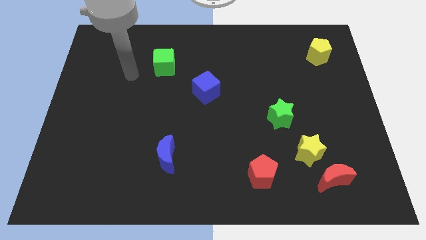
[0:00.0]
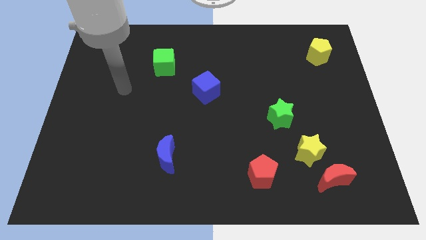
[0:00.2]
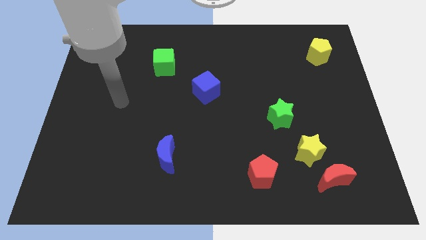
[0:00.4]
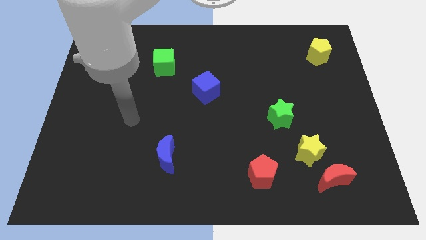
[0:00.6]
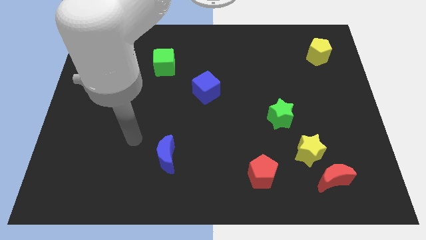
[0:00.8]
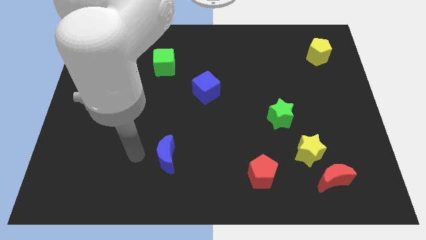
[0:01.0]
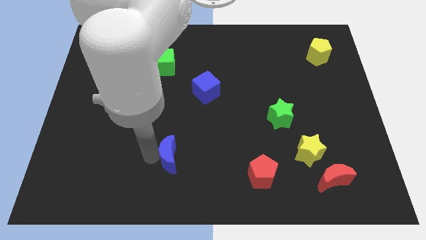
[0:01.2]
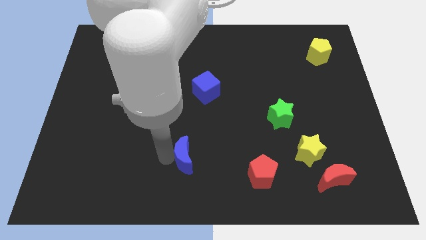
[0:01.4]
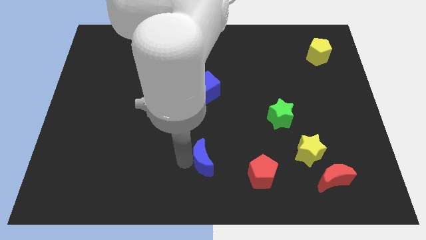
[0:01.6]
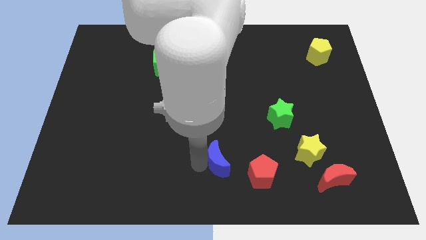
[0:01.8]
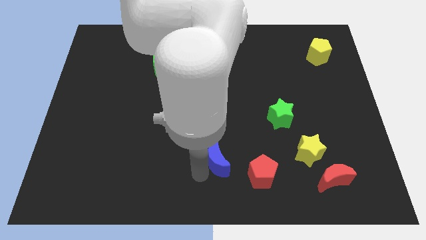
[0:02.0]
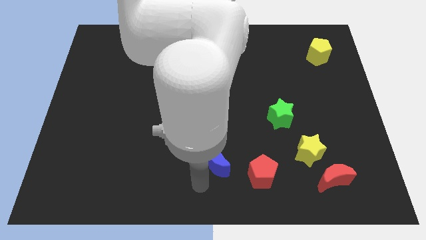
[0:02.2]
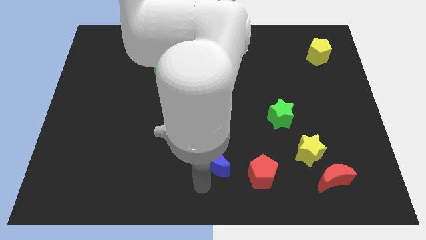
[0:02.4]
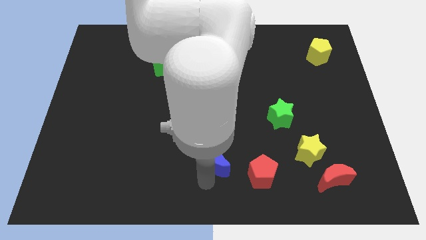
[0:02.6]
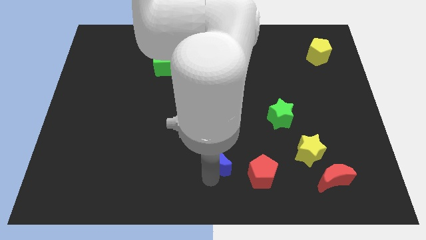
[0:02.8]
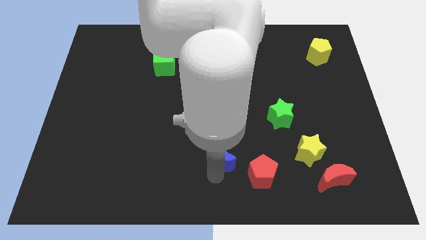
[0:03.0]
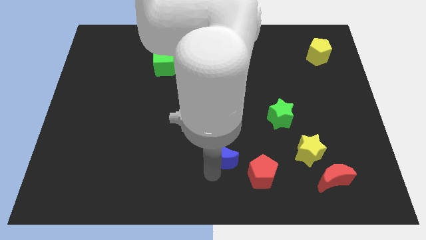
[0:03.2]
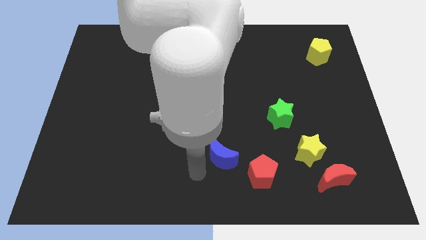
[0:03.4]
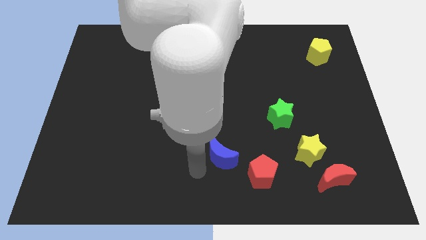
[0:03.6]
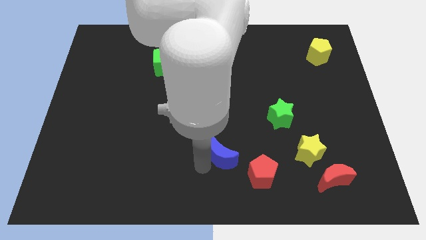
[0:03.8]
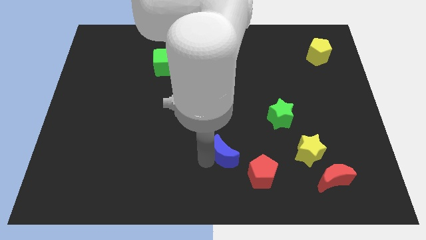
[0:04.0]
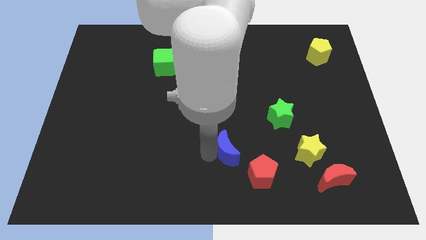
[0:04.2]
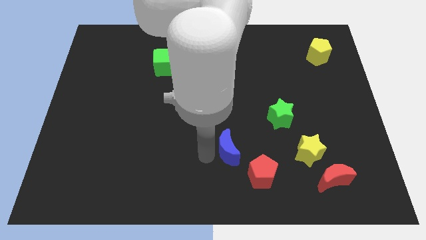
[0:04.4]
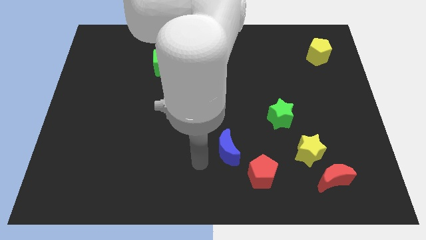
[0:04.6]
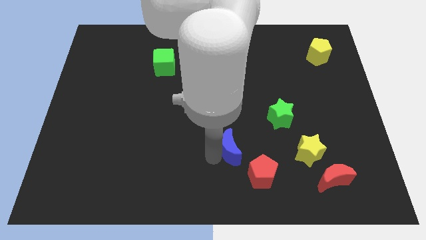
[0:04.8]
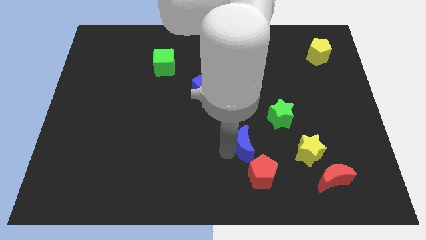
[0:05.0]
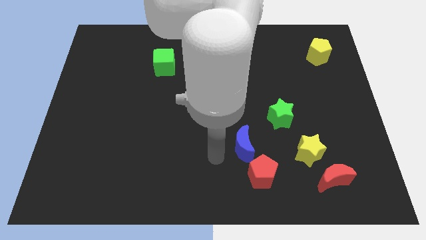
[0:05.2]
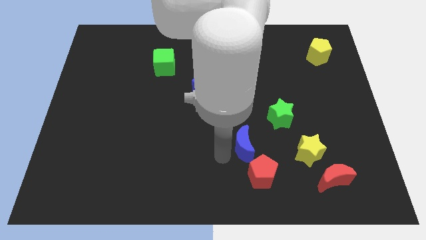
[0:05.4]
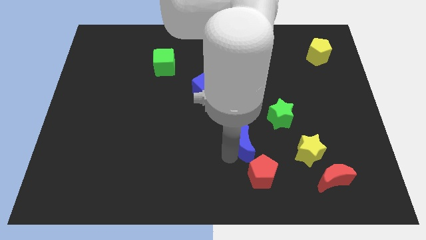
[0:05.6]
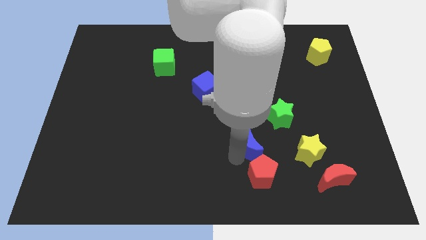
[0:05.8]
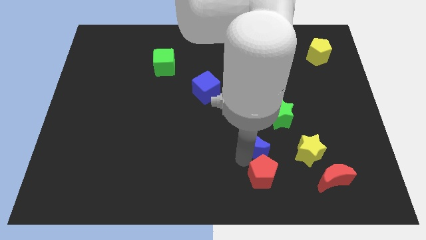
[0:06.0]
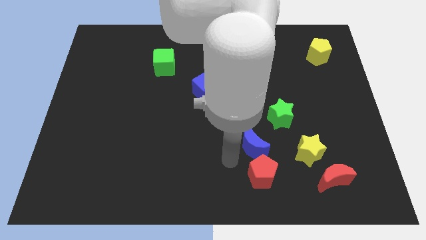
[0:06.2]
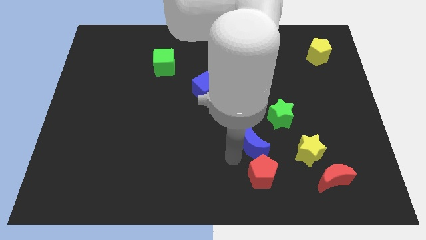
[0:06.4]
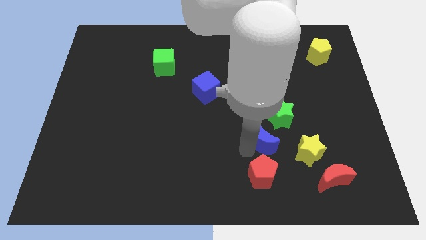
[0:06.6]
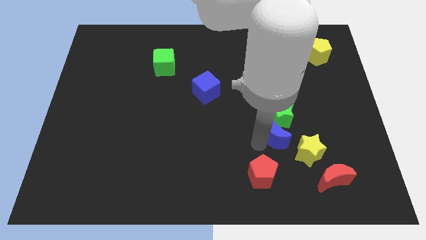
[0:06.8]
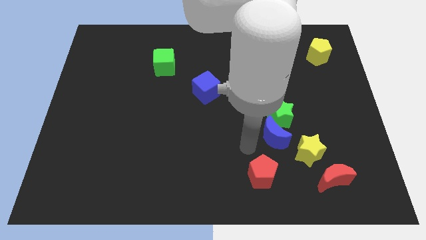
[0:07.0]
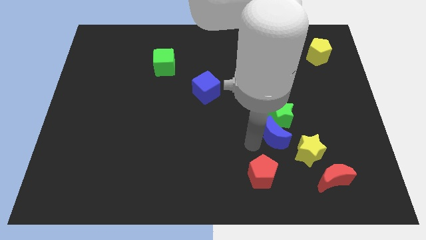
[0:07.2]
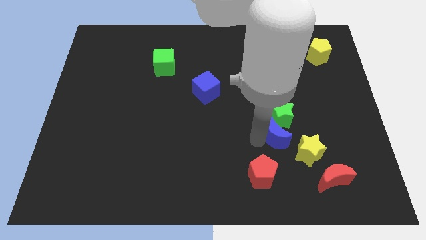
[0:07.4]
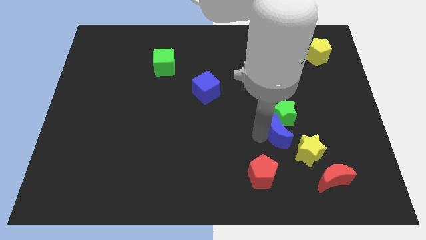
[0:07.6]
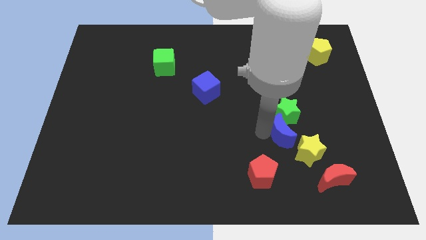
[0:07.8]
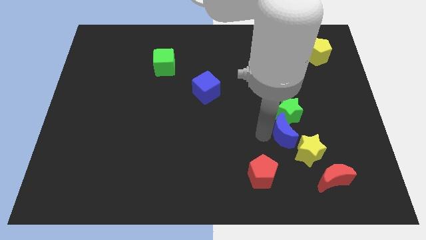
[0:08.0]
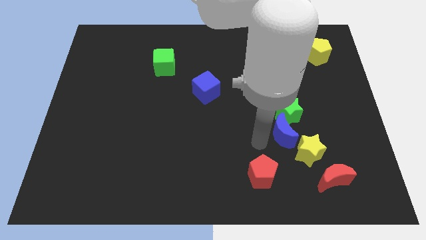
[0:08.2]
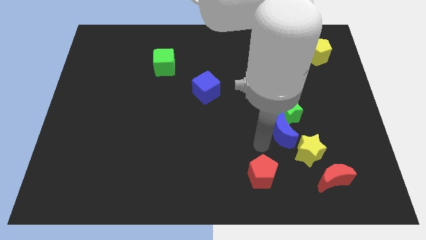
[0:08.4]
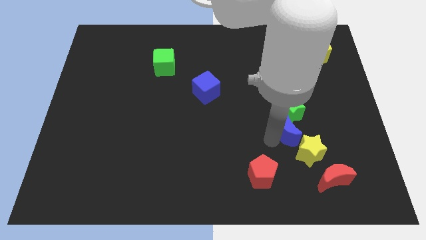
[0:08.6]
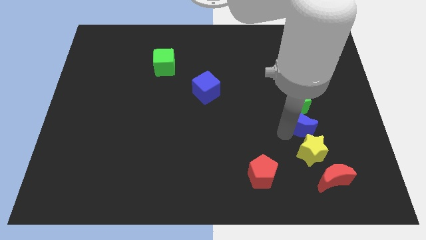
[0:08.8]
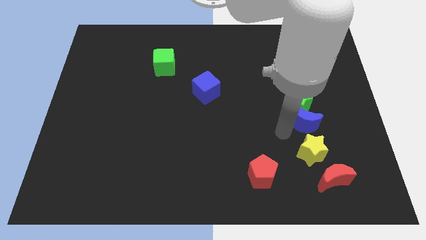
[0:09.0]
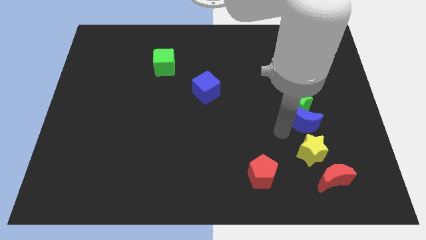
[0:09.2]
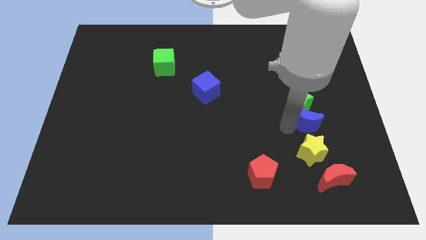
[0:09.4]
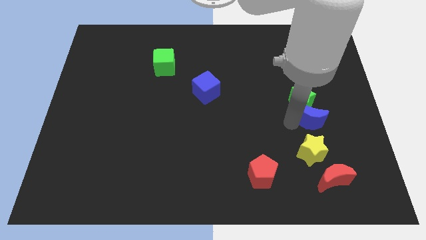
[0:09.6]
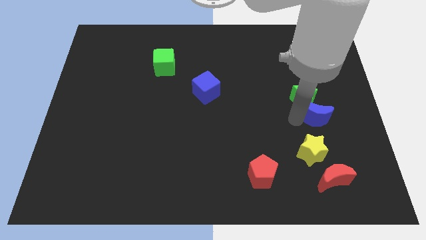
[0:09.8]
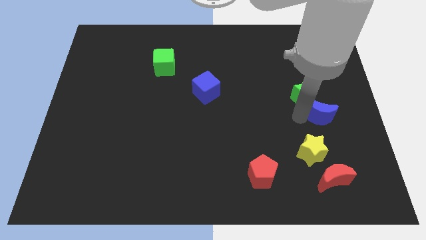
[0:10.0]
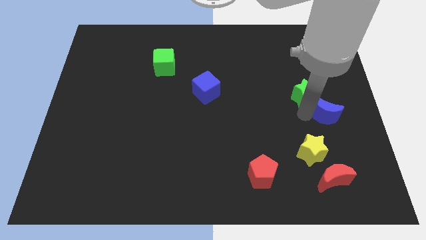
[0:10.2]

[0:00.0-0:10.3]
move the blue moon to the right side of the board
